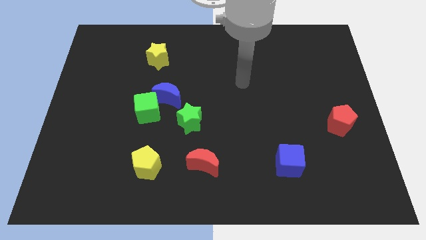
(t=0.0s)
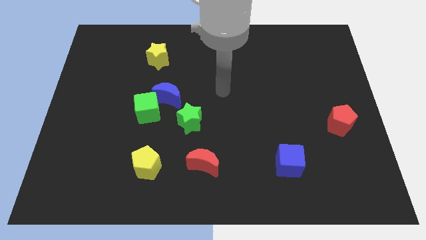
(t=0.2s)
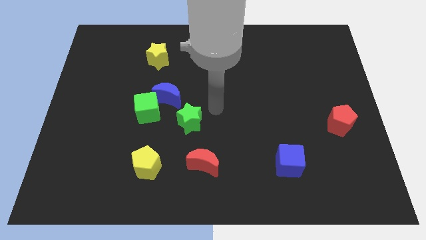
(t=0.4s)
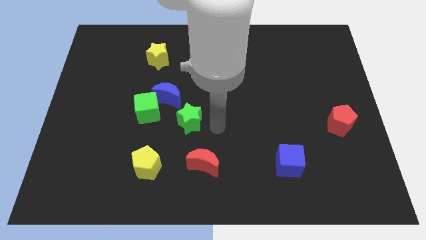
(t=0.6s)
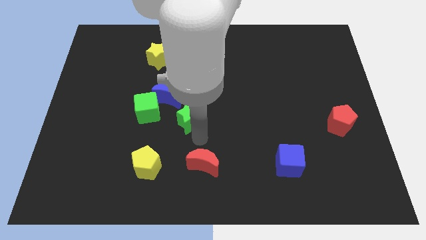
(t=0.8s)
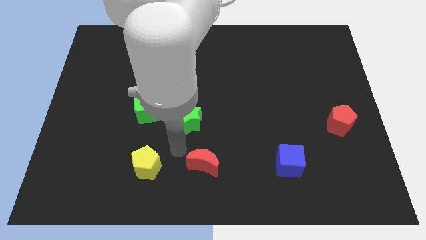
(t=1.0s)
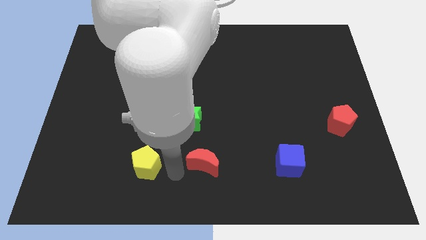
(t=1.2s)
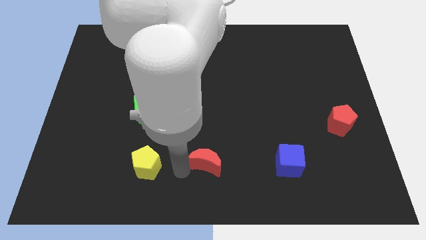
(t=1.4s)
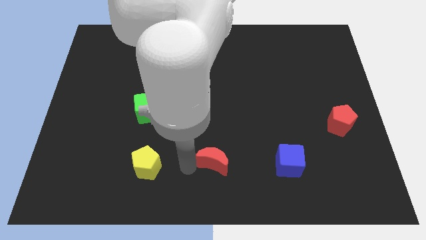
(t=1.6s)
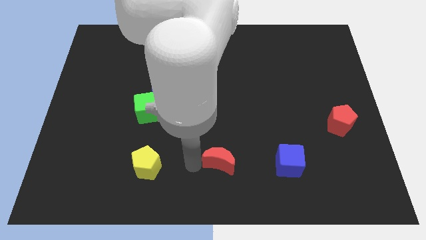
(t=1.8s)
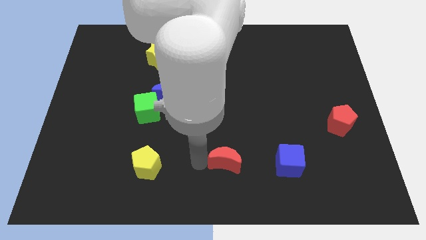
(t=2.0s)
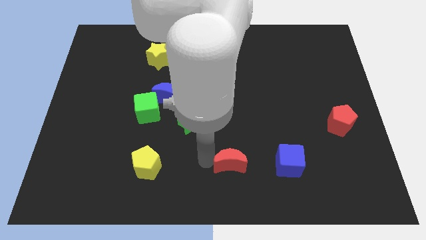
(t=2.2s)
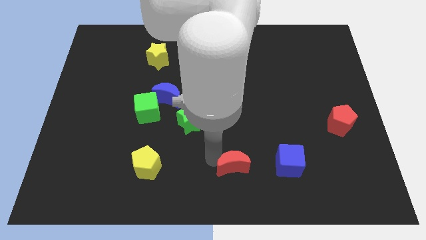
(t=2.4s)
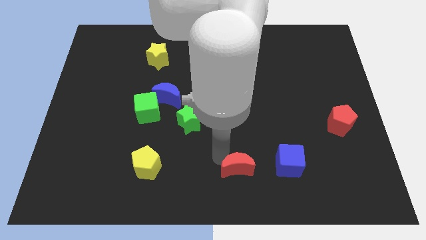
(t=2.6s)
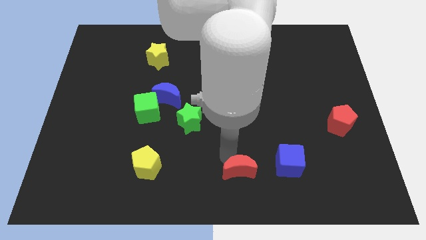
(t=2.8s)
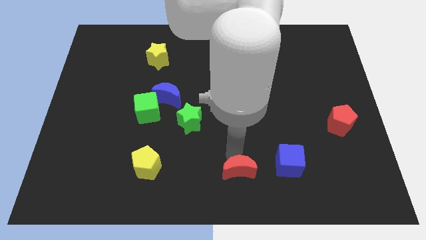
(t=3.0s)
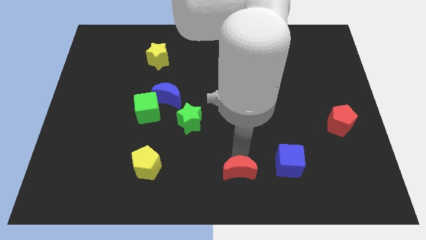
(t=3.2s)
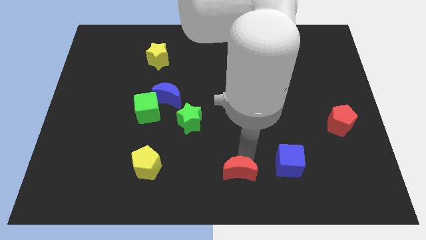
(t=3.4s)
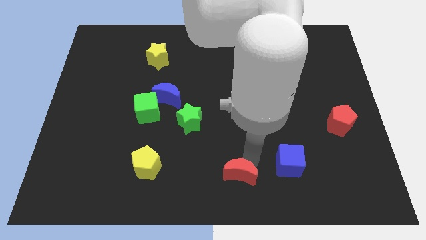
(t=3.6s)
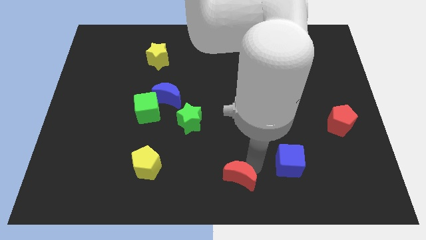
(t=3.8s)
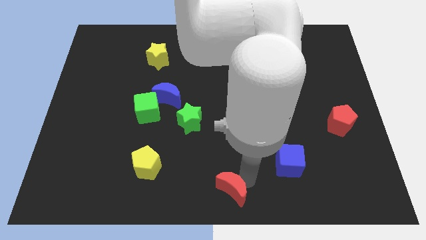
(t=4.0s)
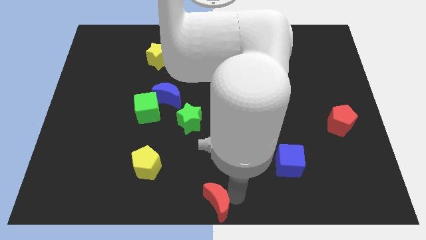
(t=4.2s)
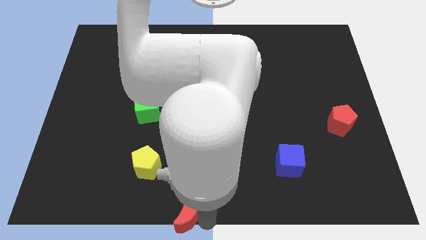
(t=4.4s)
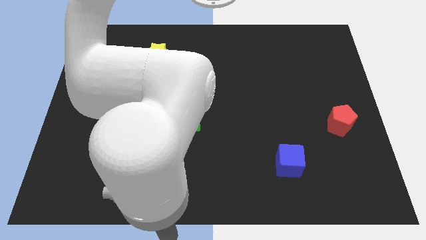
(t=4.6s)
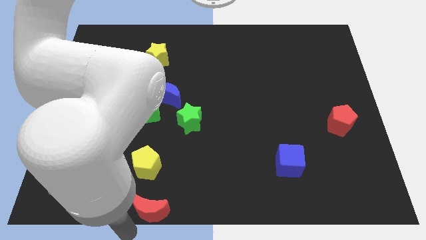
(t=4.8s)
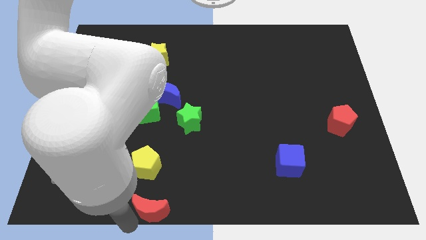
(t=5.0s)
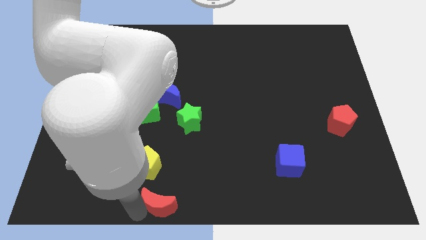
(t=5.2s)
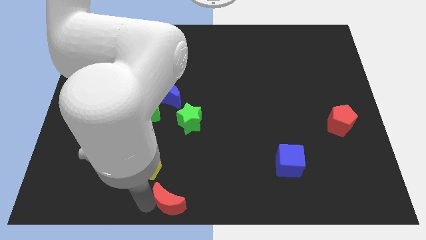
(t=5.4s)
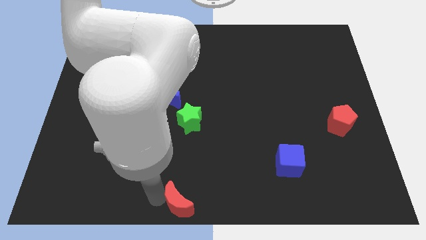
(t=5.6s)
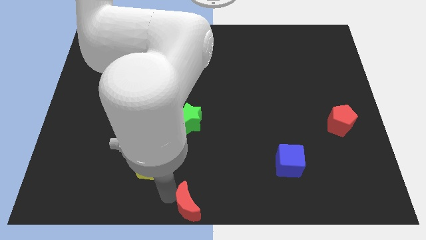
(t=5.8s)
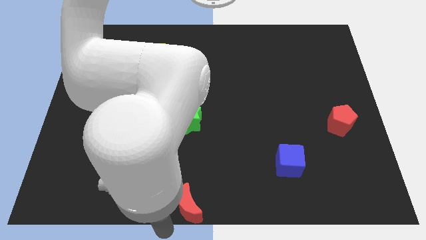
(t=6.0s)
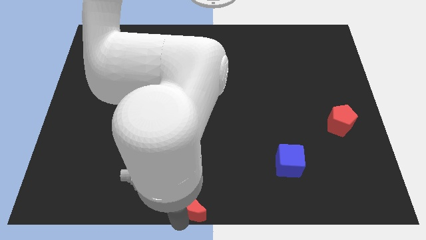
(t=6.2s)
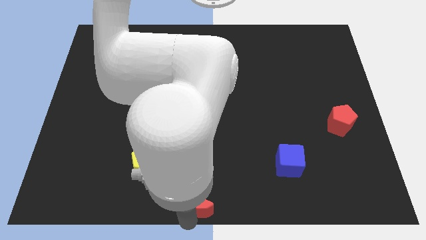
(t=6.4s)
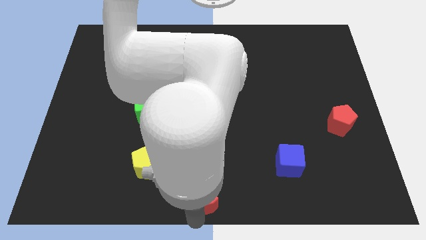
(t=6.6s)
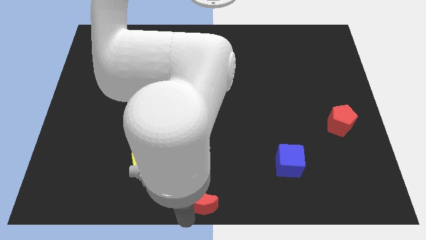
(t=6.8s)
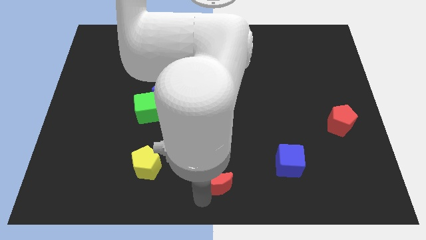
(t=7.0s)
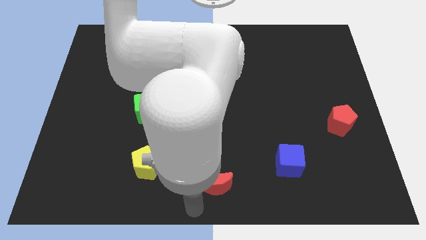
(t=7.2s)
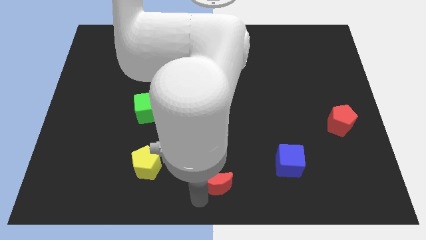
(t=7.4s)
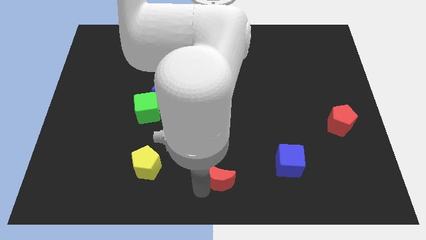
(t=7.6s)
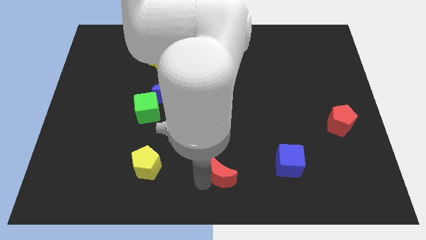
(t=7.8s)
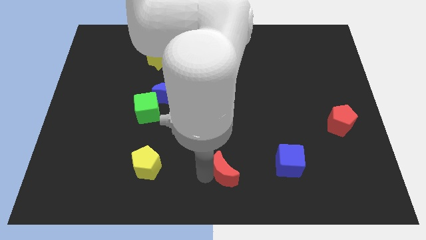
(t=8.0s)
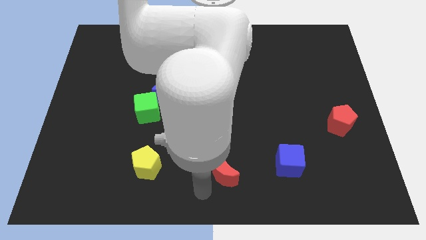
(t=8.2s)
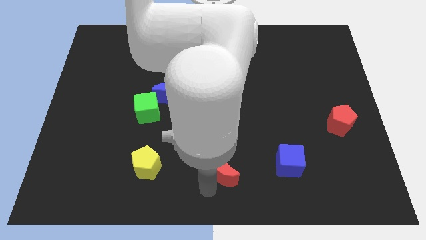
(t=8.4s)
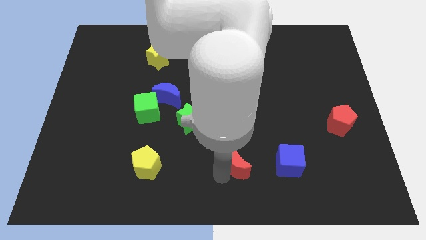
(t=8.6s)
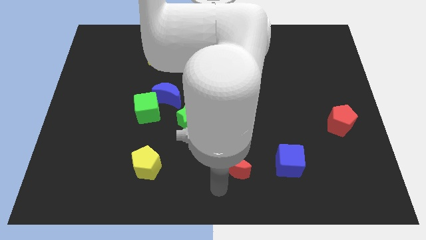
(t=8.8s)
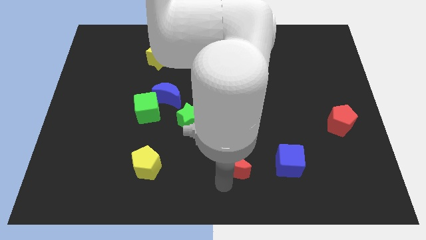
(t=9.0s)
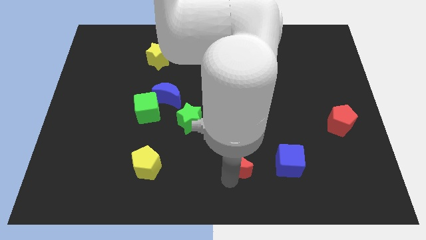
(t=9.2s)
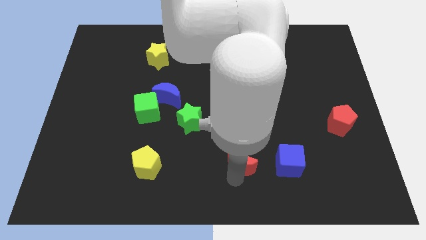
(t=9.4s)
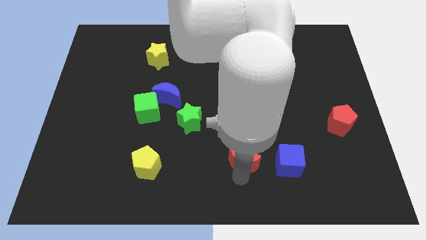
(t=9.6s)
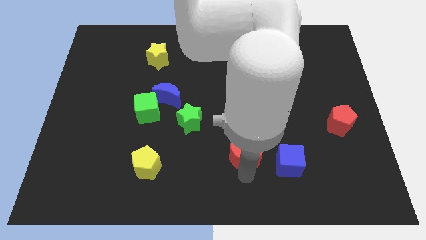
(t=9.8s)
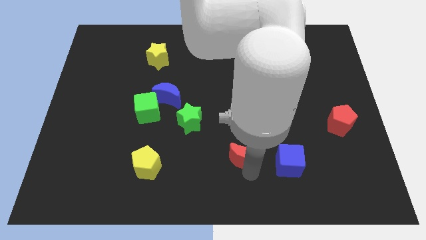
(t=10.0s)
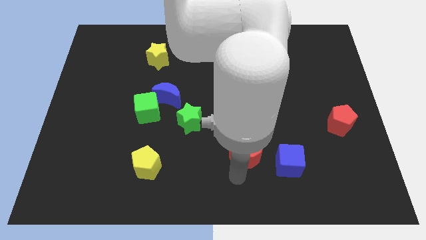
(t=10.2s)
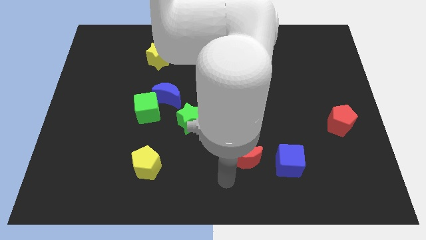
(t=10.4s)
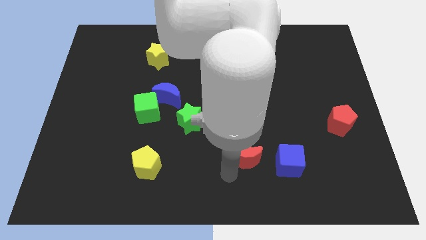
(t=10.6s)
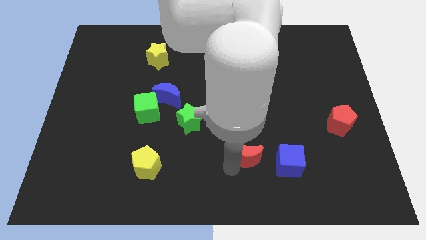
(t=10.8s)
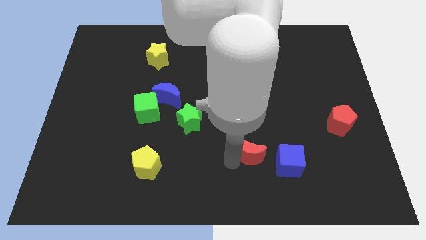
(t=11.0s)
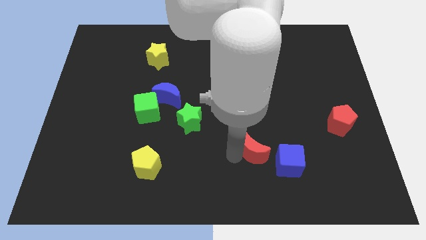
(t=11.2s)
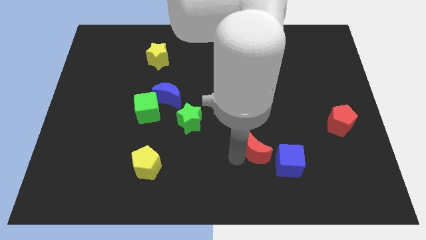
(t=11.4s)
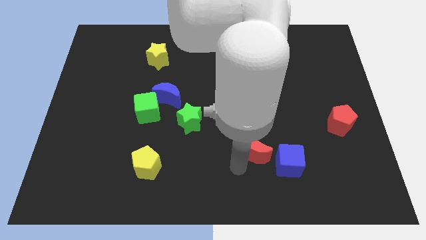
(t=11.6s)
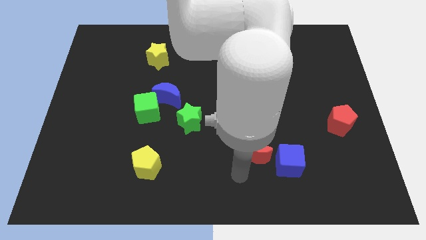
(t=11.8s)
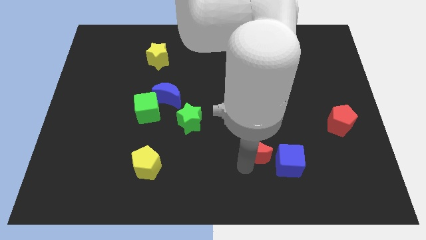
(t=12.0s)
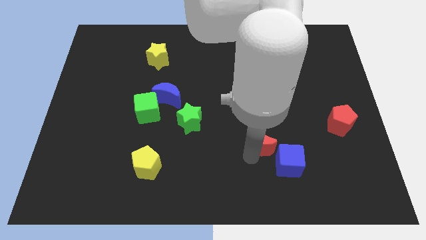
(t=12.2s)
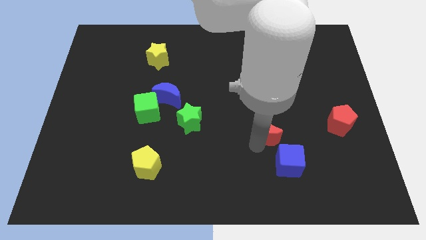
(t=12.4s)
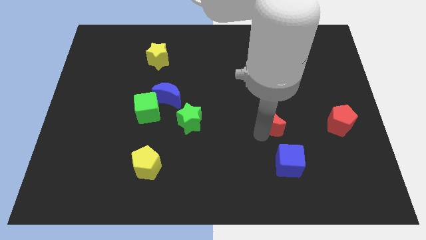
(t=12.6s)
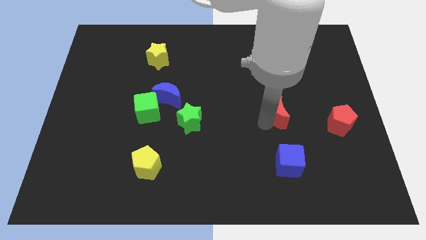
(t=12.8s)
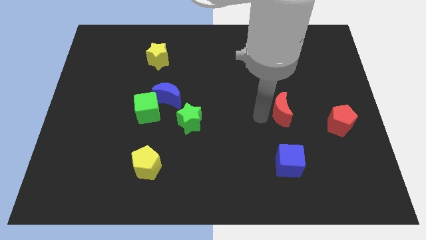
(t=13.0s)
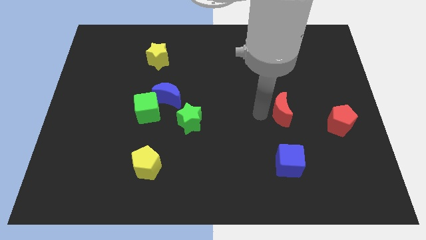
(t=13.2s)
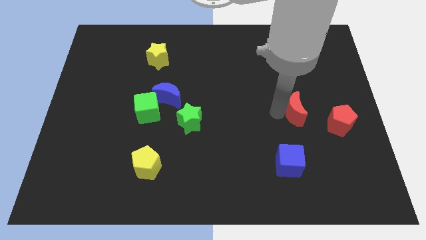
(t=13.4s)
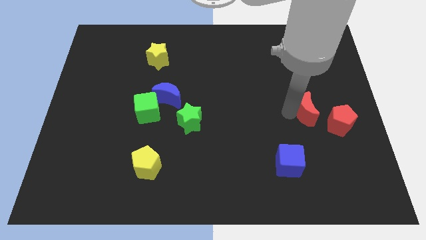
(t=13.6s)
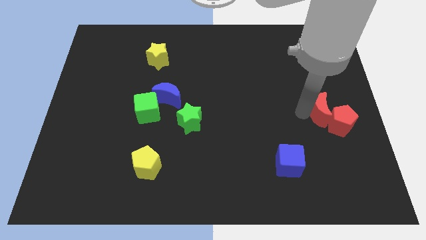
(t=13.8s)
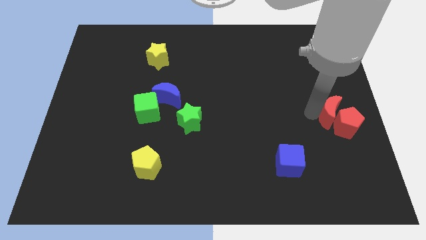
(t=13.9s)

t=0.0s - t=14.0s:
move the red moon to the center right

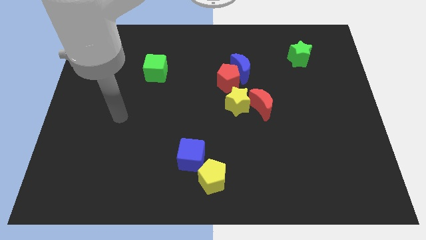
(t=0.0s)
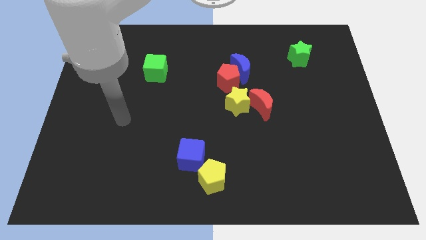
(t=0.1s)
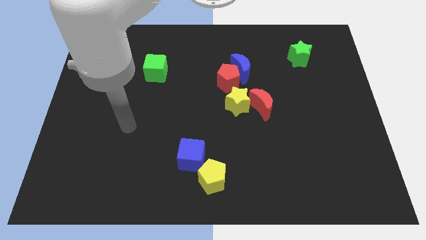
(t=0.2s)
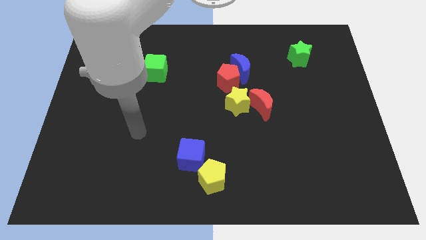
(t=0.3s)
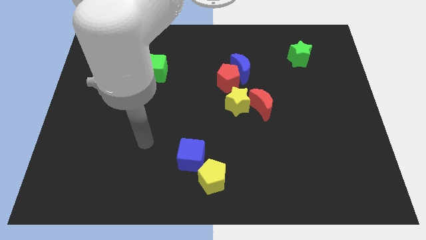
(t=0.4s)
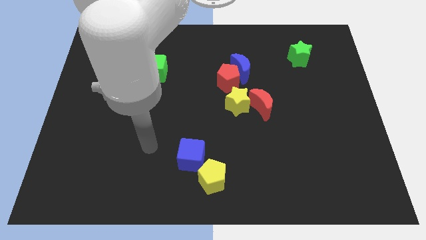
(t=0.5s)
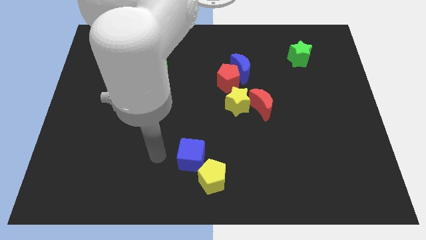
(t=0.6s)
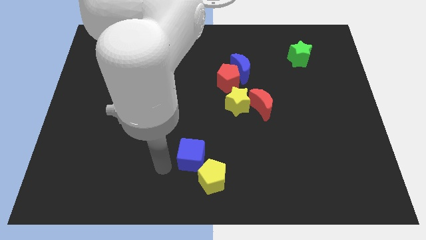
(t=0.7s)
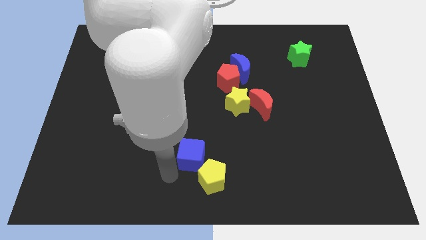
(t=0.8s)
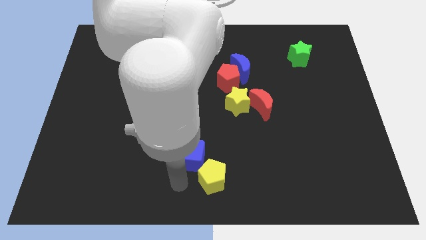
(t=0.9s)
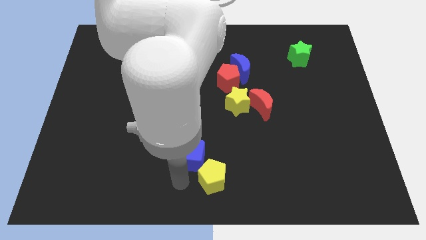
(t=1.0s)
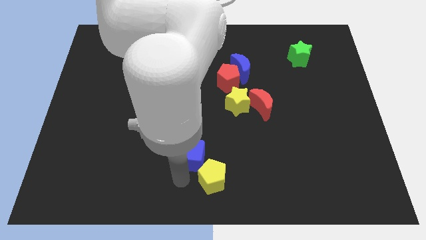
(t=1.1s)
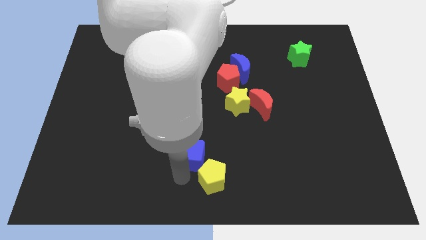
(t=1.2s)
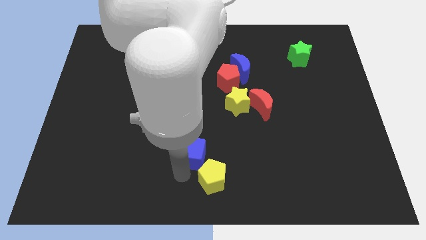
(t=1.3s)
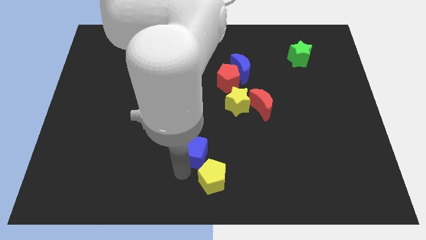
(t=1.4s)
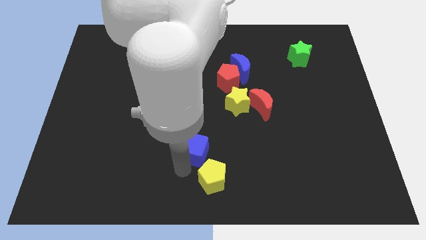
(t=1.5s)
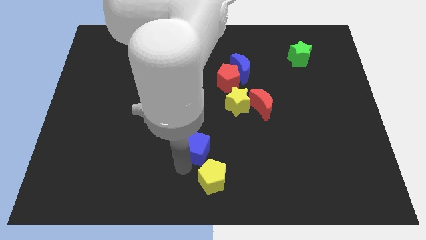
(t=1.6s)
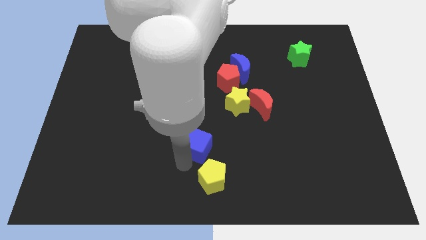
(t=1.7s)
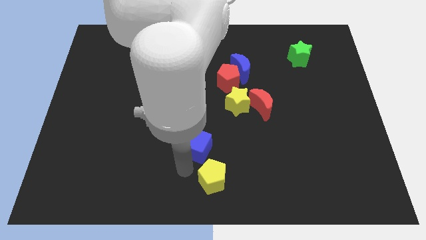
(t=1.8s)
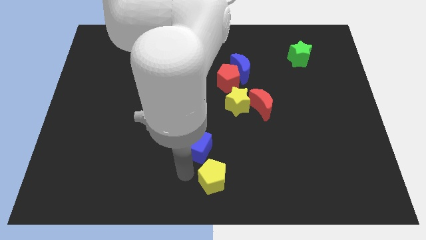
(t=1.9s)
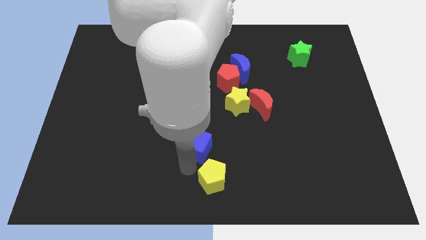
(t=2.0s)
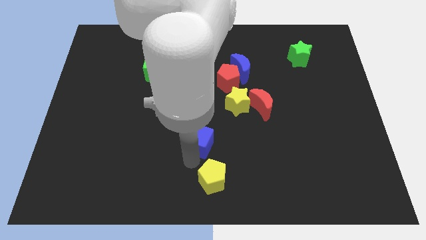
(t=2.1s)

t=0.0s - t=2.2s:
push the blue cube to the center
